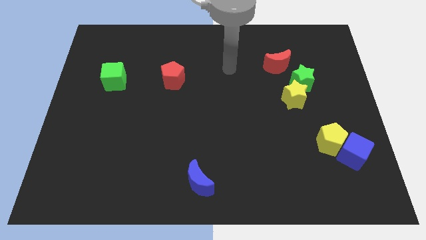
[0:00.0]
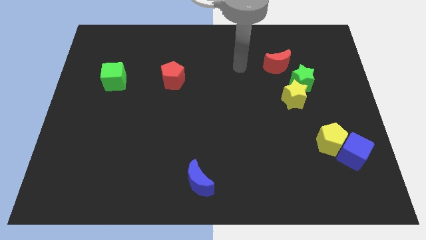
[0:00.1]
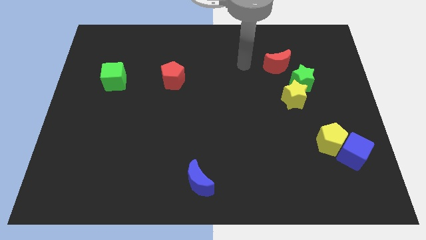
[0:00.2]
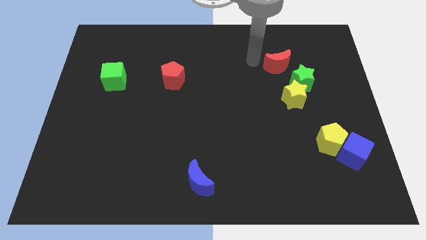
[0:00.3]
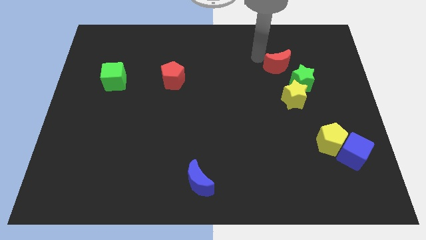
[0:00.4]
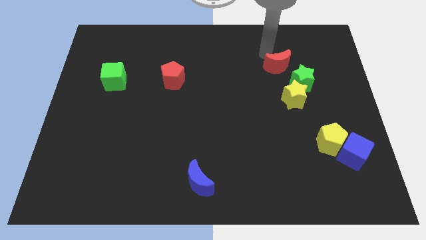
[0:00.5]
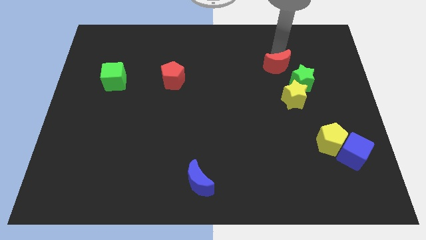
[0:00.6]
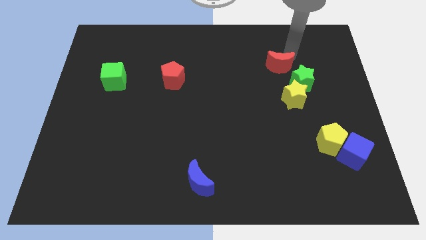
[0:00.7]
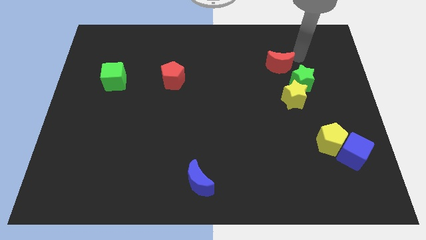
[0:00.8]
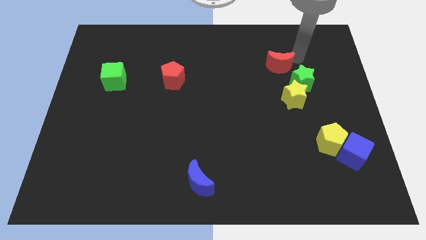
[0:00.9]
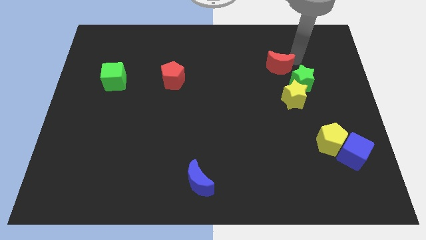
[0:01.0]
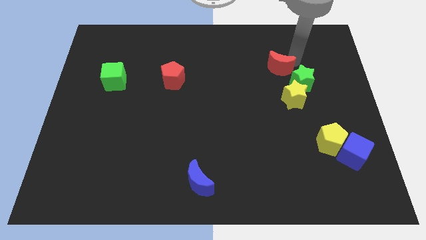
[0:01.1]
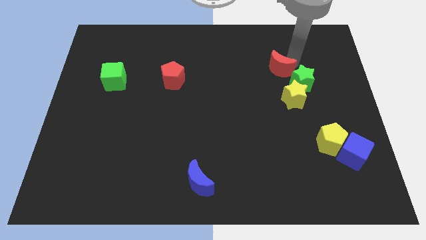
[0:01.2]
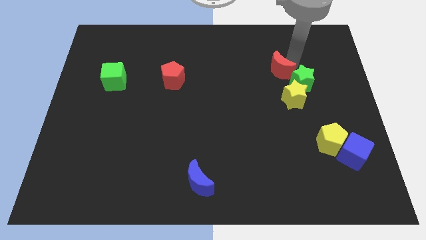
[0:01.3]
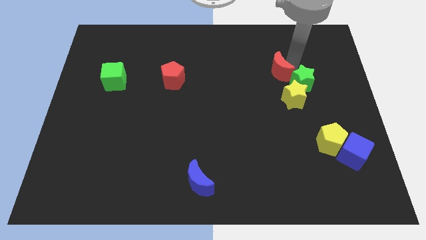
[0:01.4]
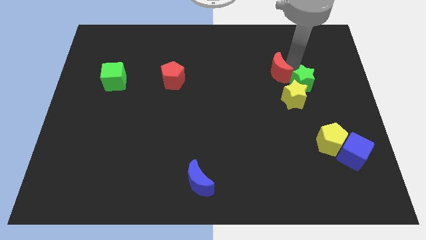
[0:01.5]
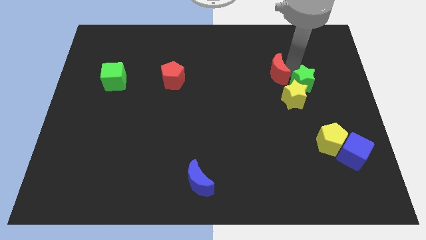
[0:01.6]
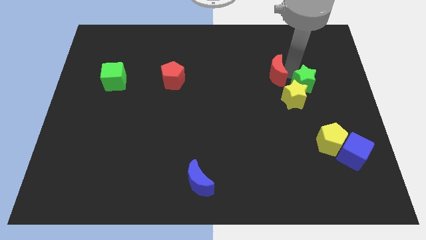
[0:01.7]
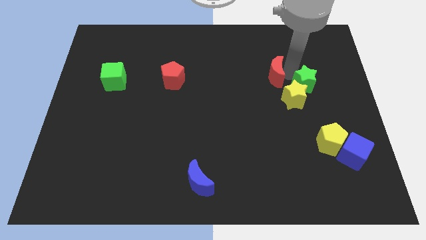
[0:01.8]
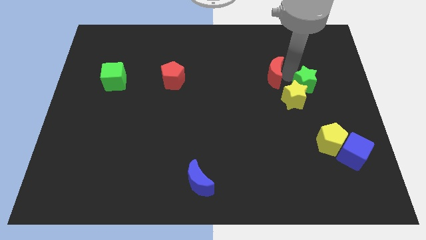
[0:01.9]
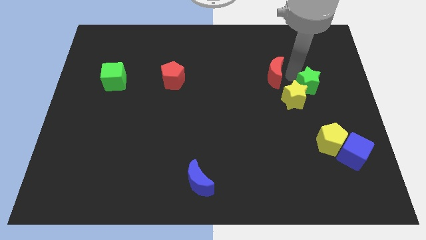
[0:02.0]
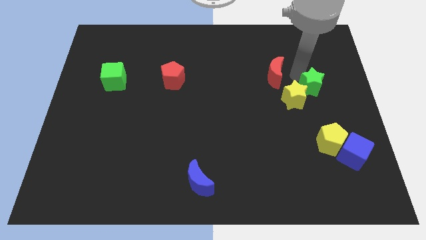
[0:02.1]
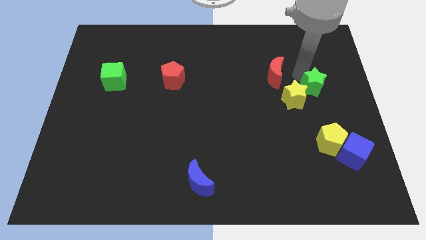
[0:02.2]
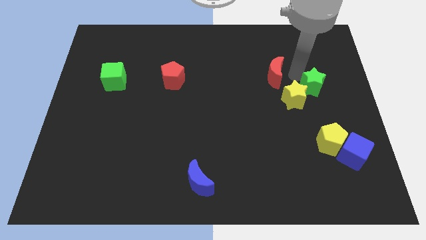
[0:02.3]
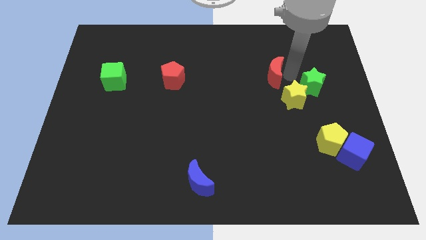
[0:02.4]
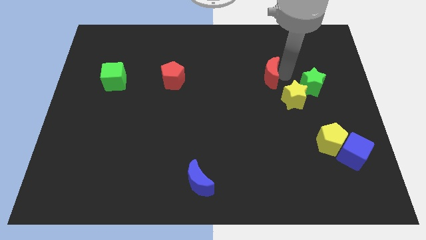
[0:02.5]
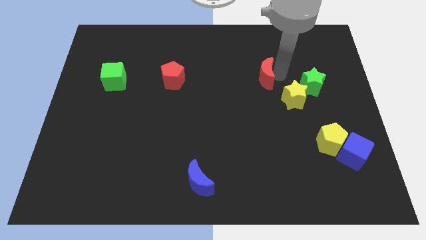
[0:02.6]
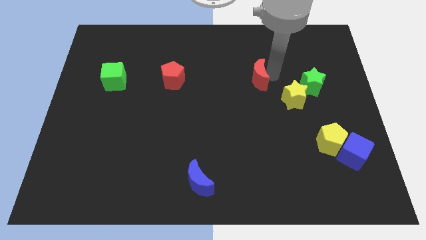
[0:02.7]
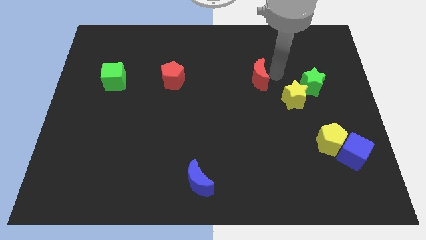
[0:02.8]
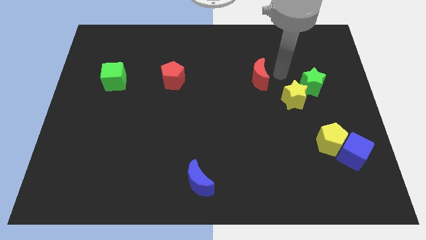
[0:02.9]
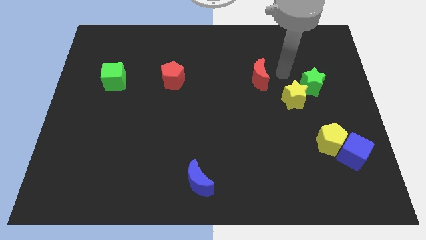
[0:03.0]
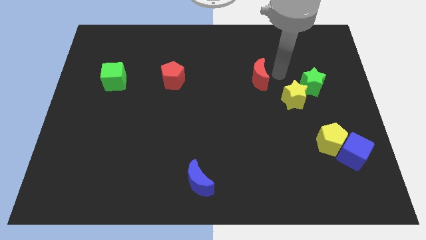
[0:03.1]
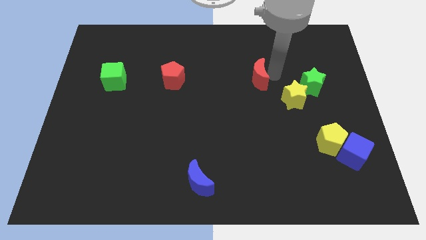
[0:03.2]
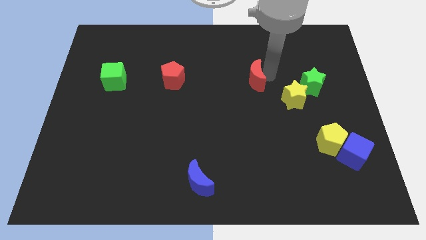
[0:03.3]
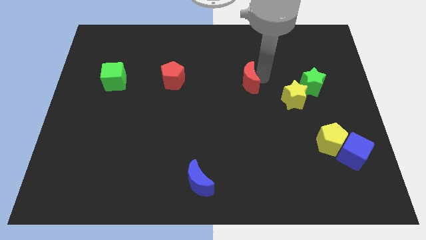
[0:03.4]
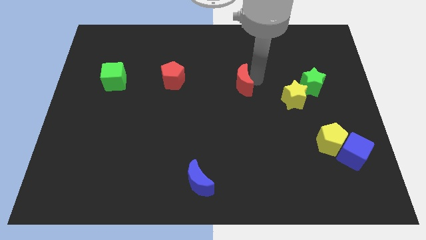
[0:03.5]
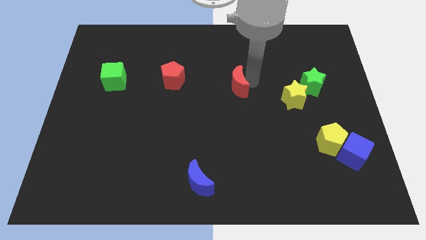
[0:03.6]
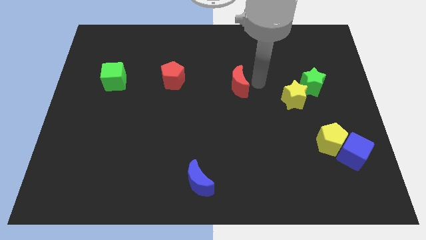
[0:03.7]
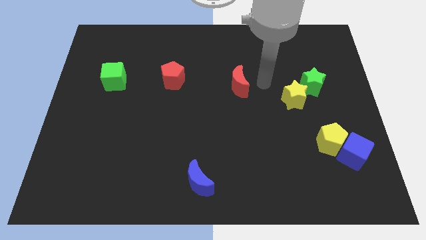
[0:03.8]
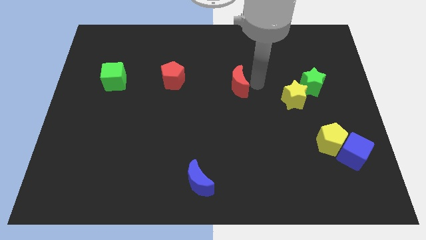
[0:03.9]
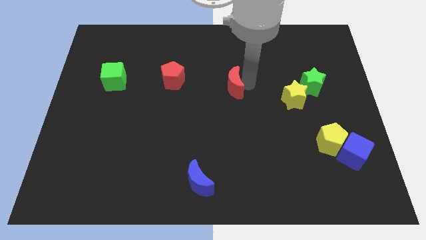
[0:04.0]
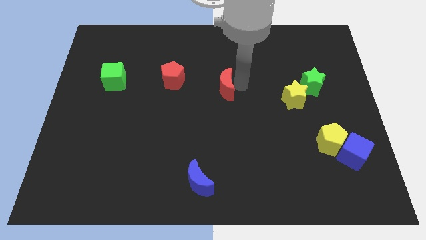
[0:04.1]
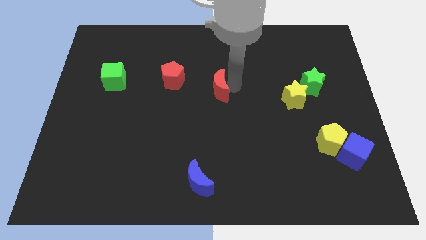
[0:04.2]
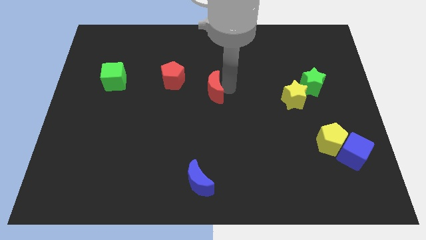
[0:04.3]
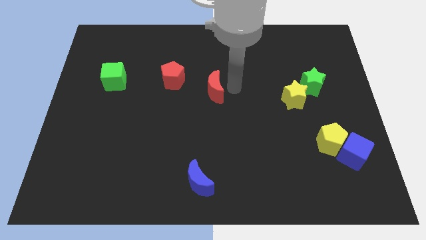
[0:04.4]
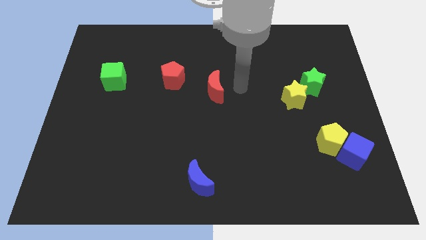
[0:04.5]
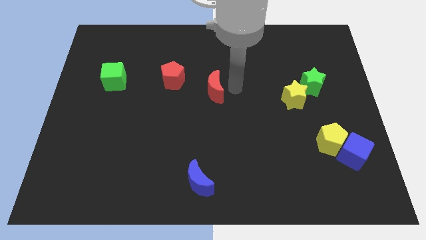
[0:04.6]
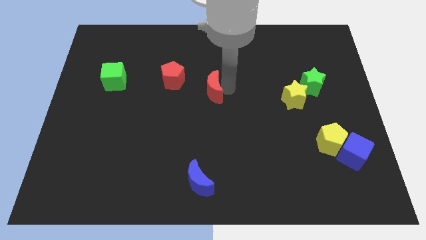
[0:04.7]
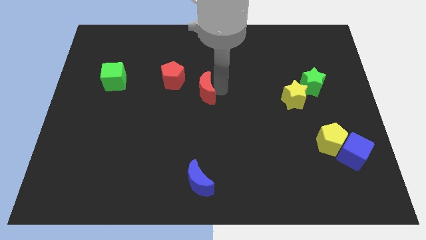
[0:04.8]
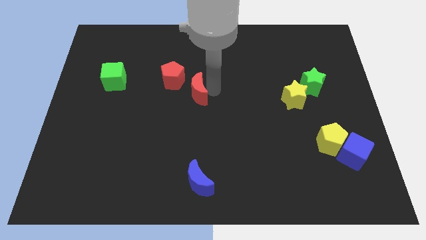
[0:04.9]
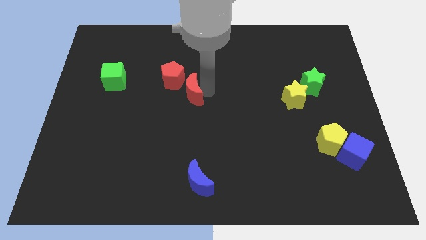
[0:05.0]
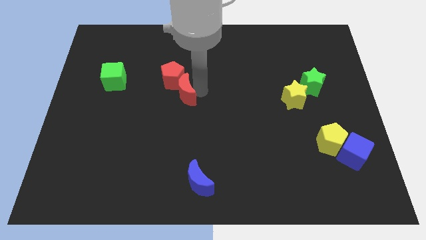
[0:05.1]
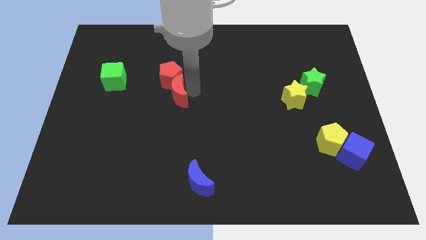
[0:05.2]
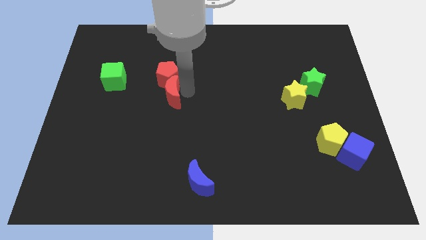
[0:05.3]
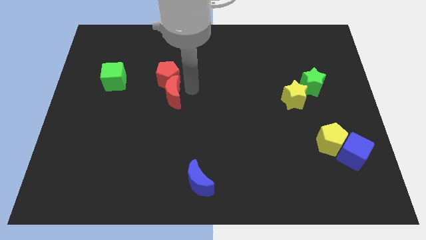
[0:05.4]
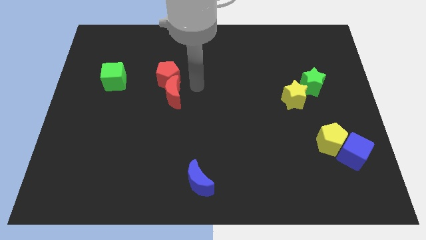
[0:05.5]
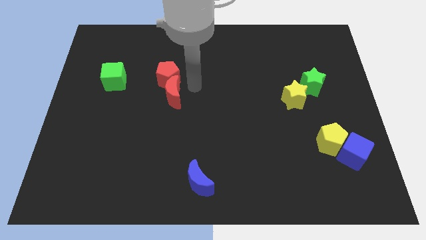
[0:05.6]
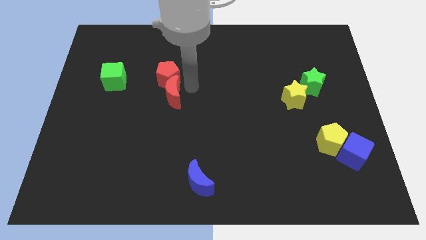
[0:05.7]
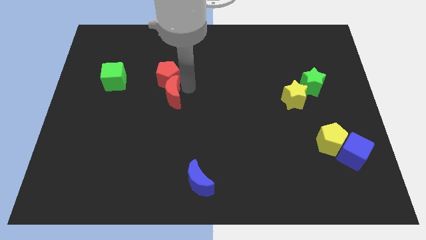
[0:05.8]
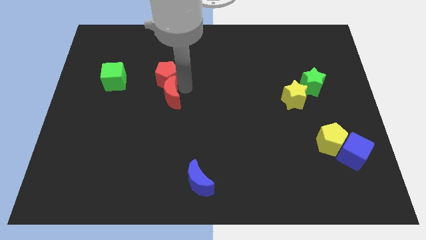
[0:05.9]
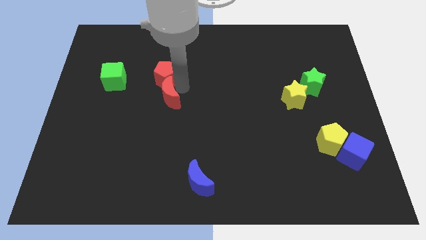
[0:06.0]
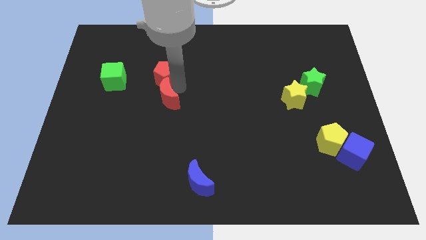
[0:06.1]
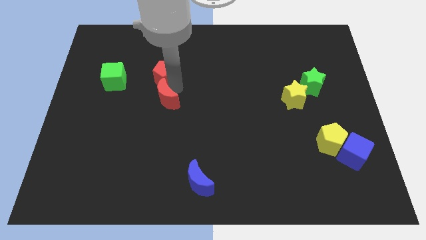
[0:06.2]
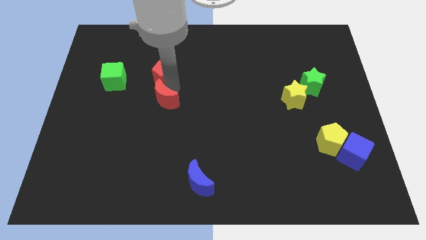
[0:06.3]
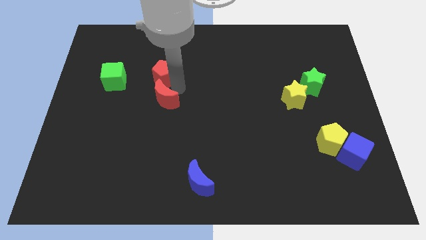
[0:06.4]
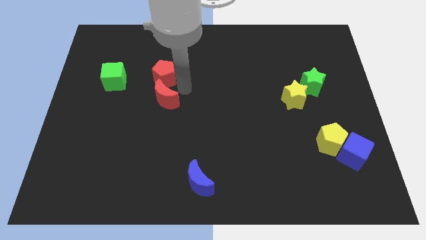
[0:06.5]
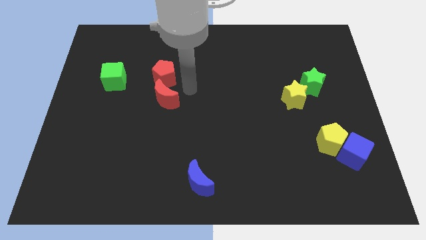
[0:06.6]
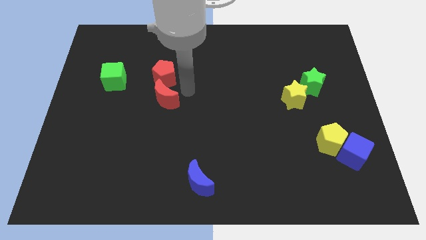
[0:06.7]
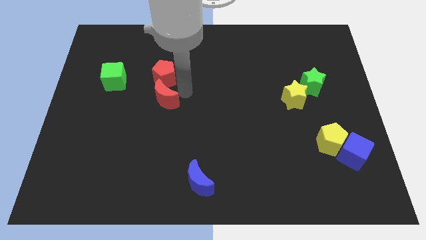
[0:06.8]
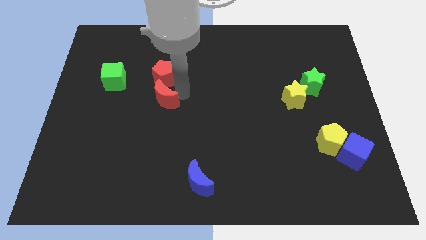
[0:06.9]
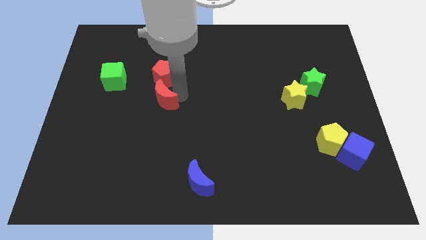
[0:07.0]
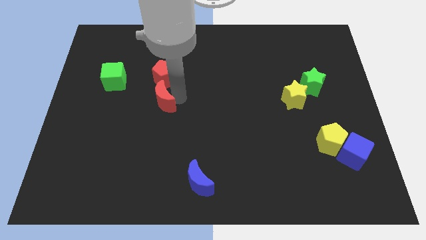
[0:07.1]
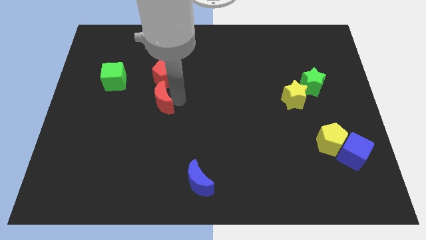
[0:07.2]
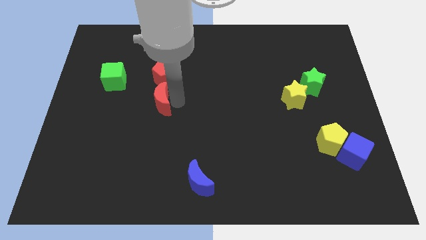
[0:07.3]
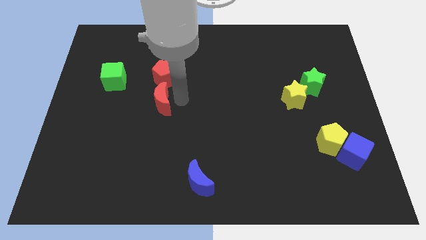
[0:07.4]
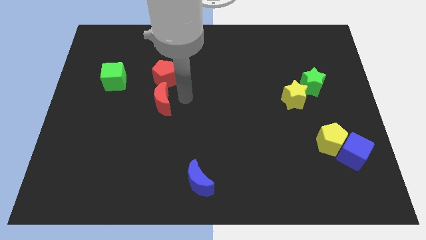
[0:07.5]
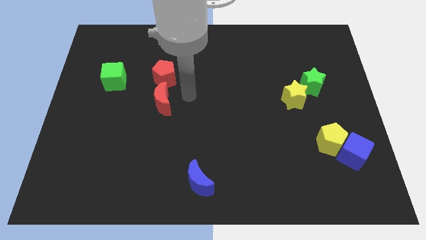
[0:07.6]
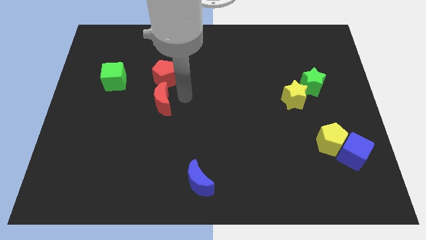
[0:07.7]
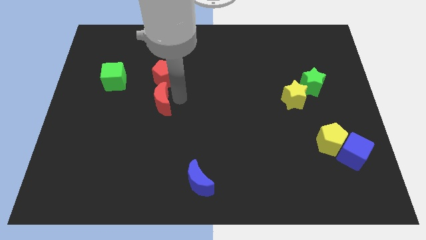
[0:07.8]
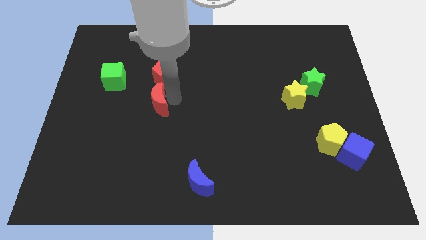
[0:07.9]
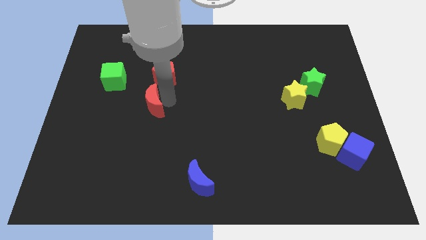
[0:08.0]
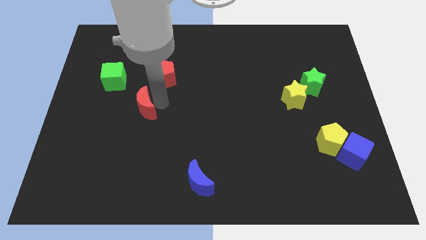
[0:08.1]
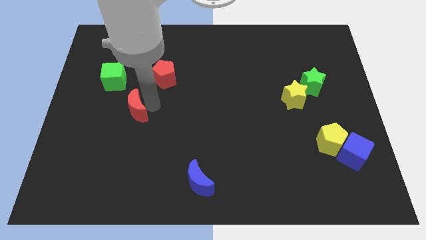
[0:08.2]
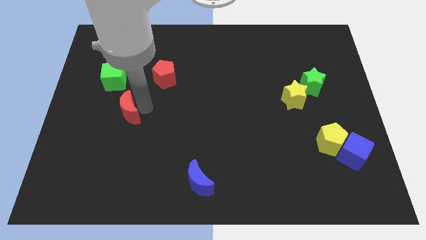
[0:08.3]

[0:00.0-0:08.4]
push the red moon to the bottom side of the green cube
